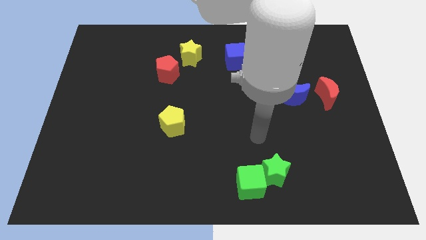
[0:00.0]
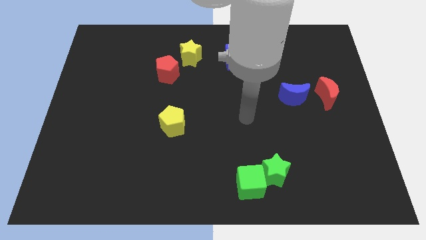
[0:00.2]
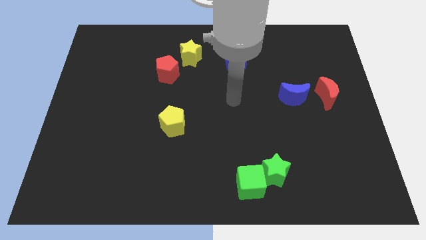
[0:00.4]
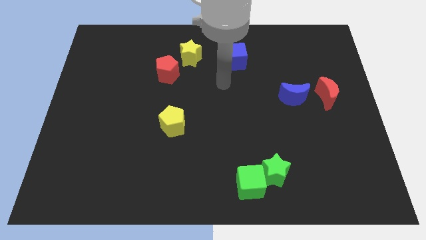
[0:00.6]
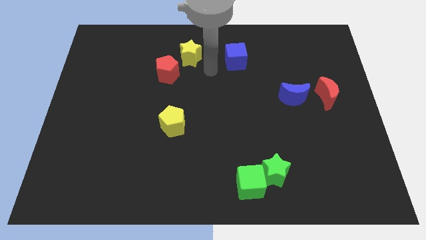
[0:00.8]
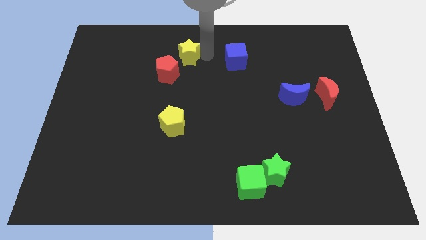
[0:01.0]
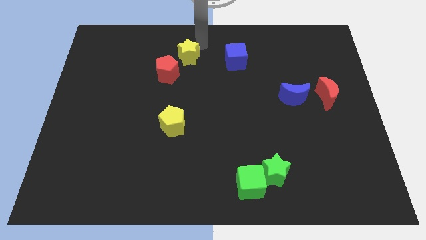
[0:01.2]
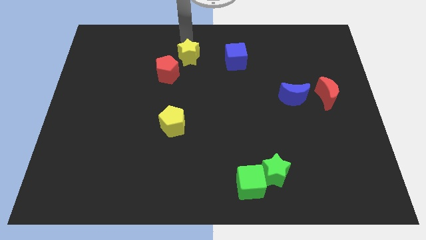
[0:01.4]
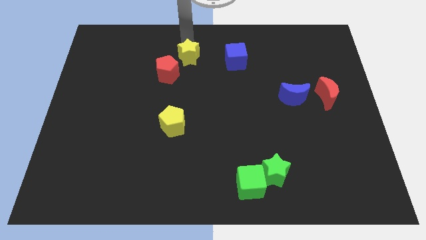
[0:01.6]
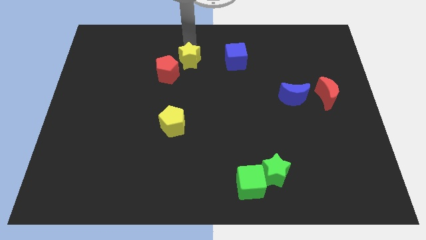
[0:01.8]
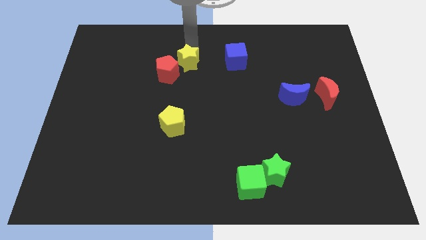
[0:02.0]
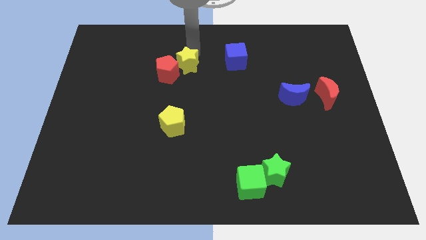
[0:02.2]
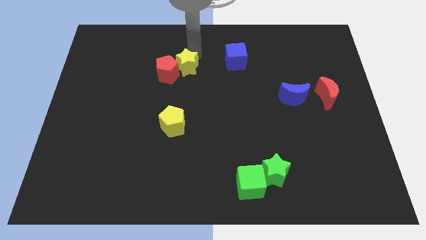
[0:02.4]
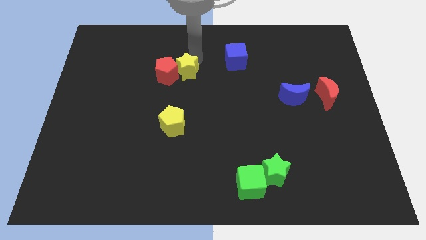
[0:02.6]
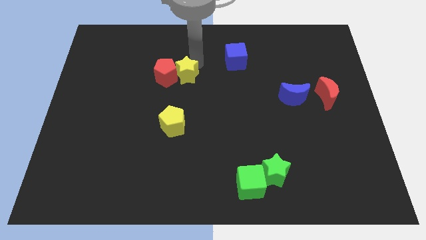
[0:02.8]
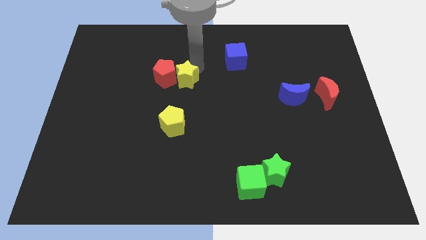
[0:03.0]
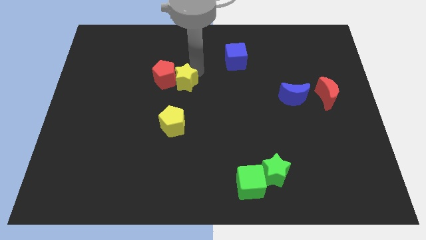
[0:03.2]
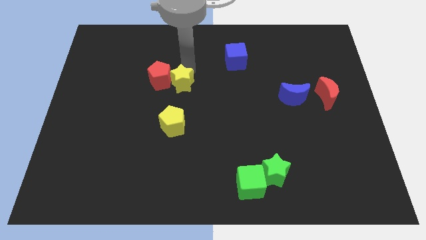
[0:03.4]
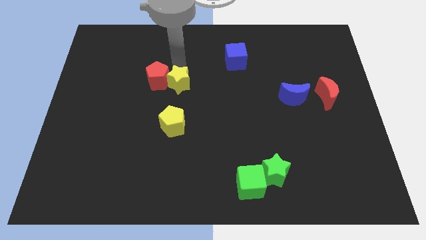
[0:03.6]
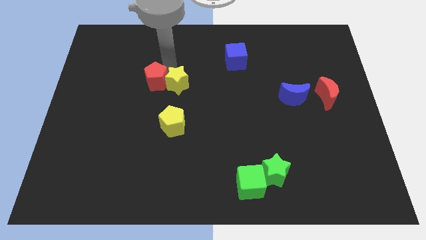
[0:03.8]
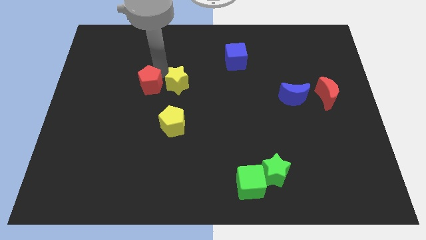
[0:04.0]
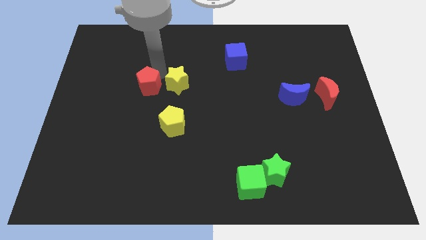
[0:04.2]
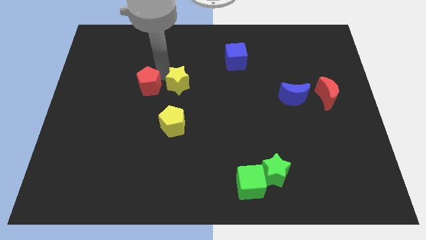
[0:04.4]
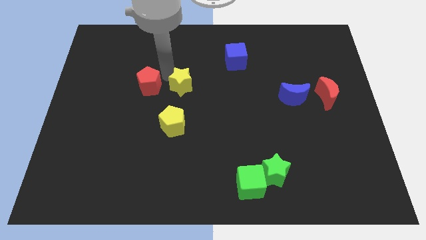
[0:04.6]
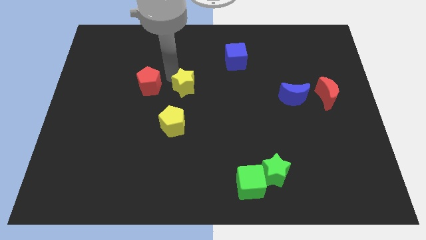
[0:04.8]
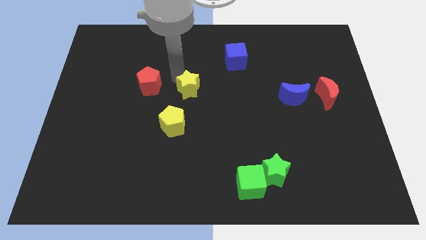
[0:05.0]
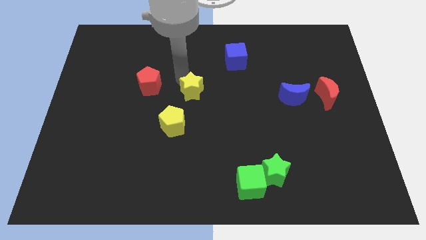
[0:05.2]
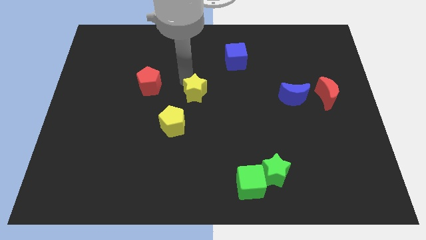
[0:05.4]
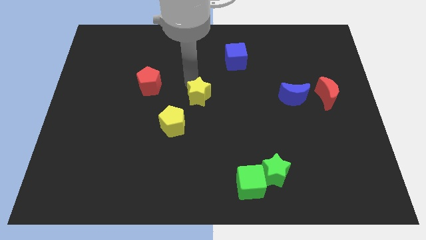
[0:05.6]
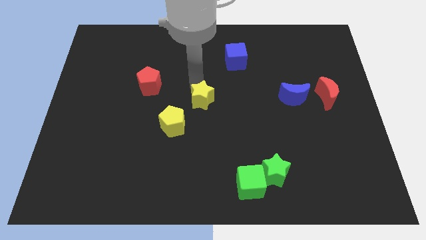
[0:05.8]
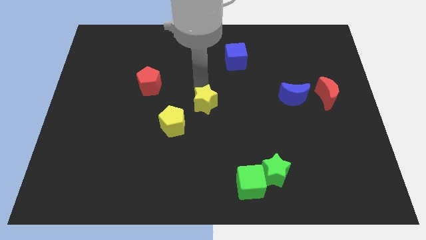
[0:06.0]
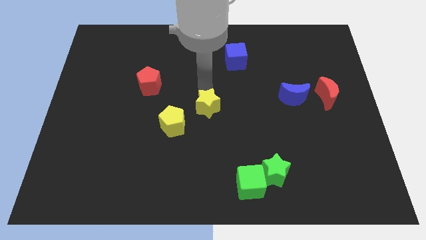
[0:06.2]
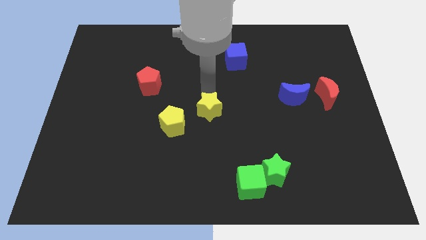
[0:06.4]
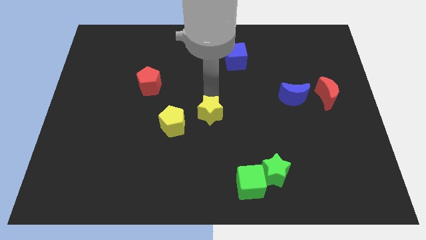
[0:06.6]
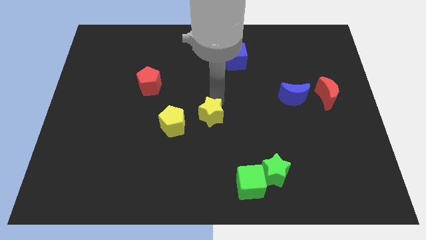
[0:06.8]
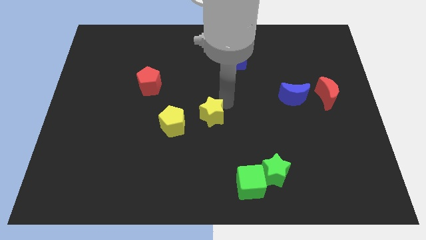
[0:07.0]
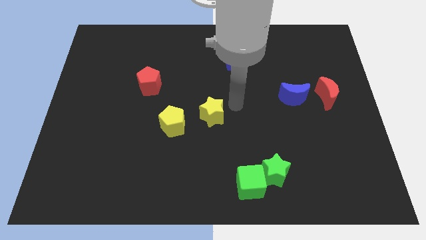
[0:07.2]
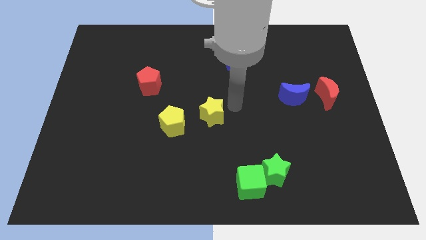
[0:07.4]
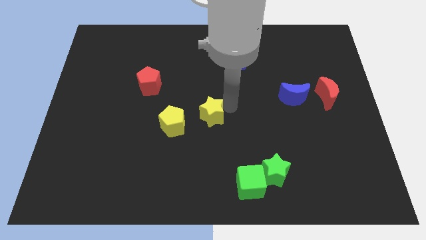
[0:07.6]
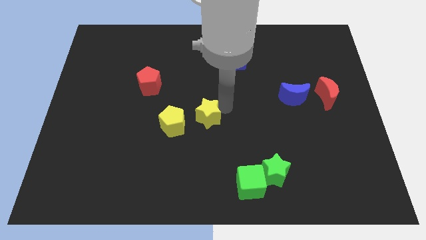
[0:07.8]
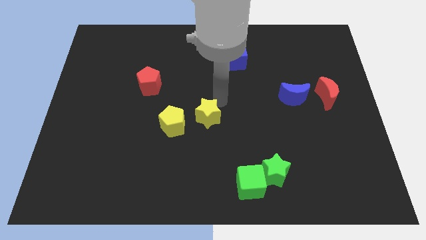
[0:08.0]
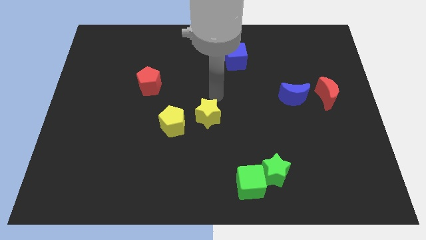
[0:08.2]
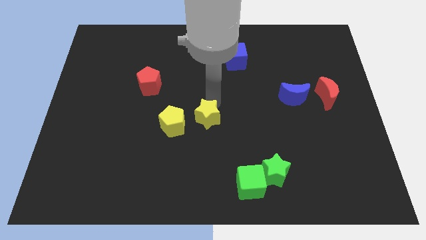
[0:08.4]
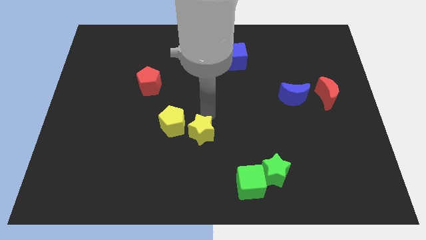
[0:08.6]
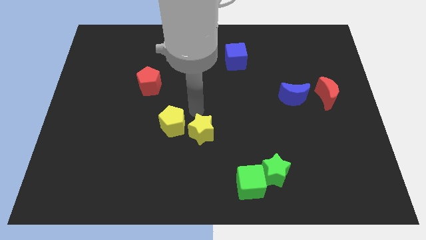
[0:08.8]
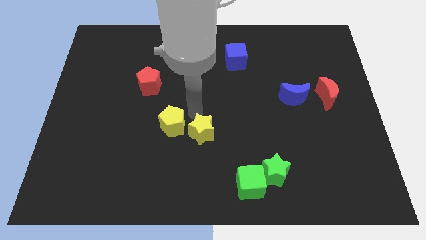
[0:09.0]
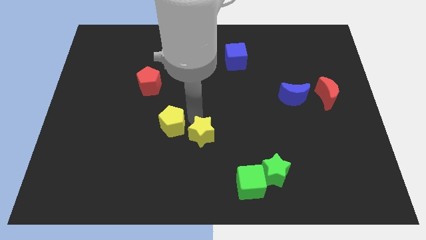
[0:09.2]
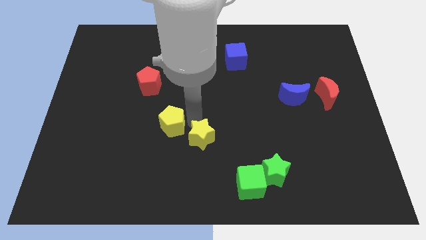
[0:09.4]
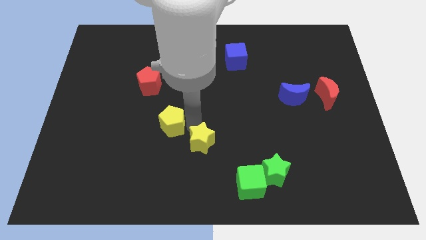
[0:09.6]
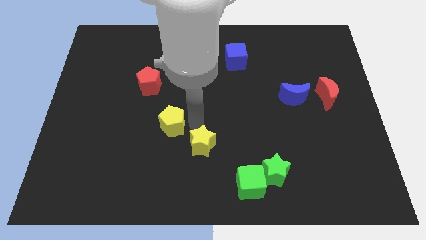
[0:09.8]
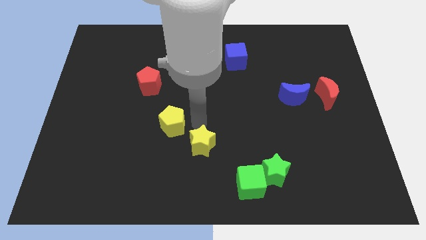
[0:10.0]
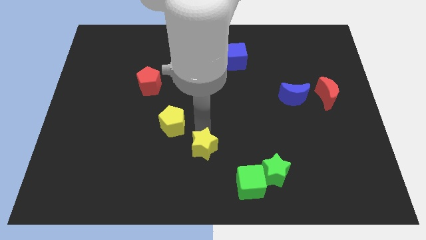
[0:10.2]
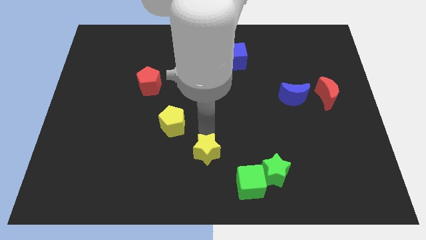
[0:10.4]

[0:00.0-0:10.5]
slide the yellow star to the bottom side

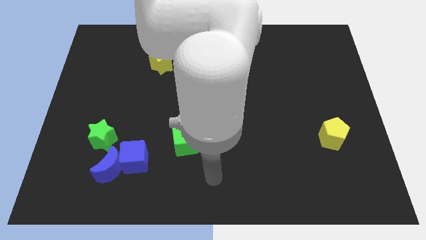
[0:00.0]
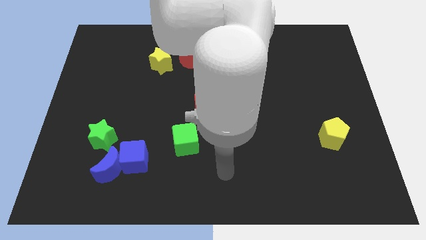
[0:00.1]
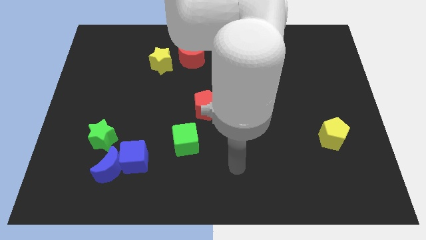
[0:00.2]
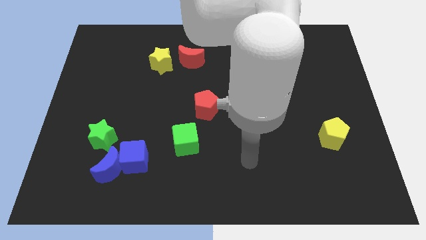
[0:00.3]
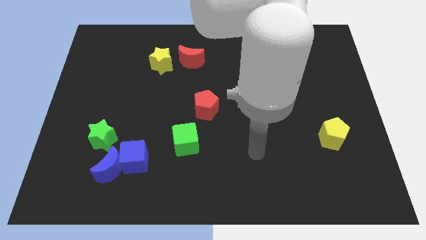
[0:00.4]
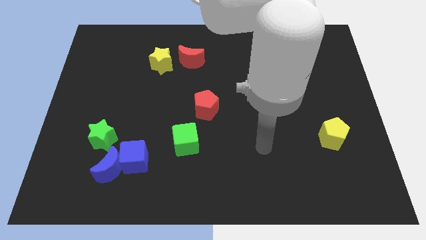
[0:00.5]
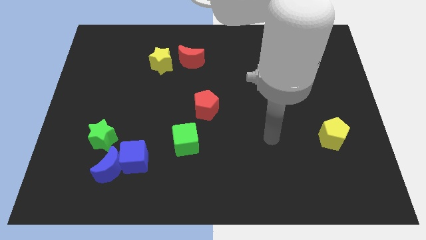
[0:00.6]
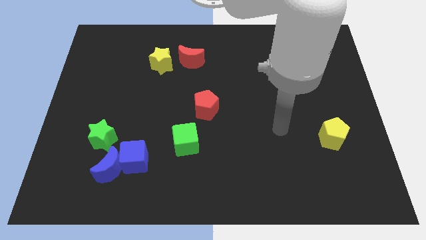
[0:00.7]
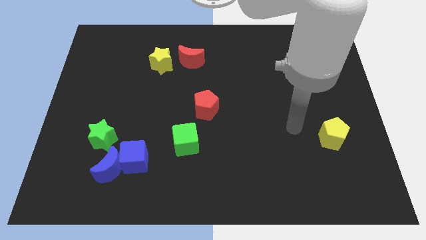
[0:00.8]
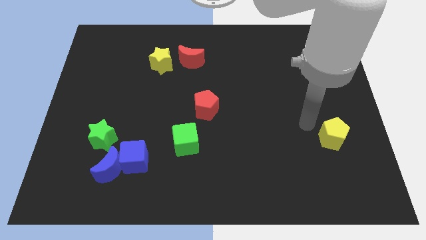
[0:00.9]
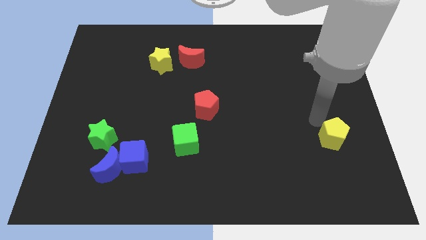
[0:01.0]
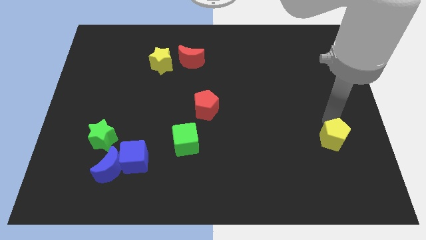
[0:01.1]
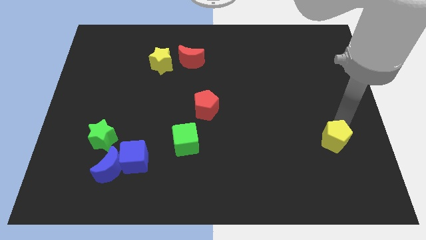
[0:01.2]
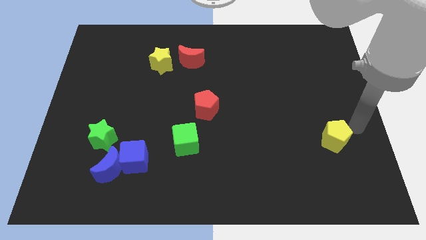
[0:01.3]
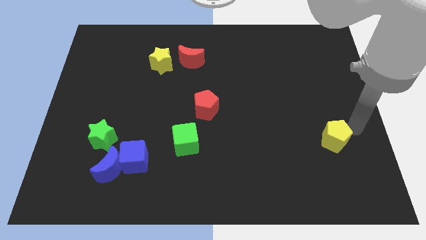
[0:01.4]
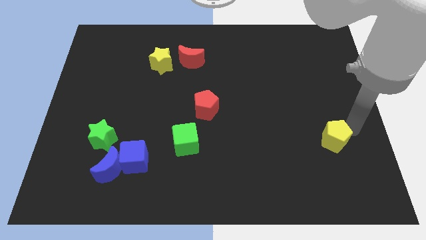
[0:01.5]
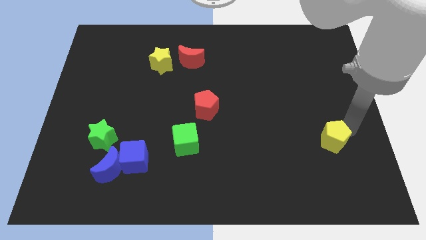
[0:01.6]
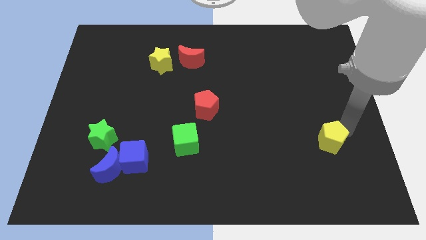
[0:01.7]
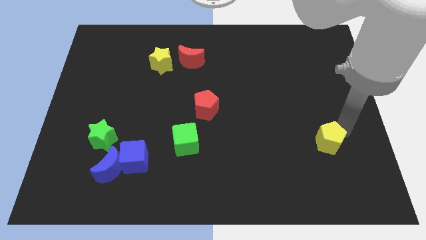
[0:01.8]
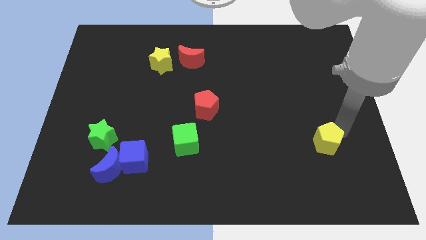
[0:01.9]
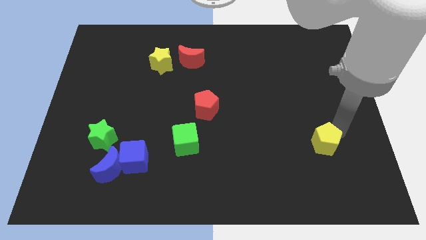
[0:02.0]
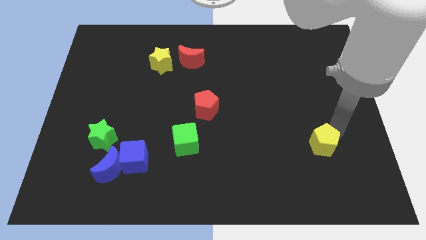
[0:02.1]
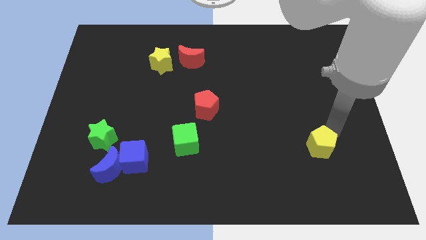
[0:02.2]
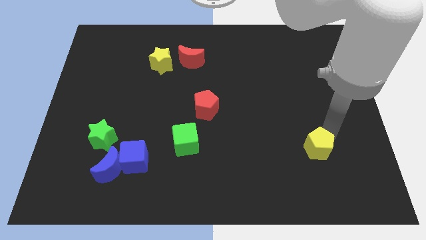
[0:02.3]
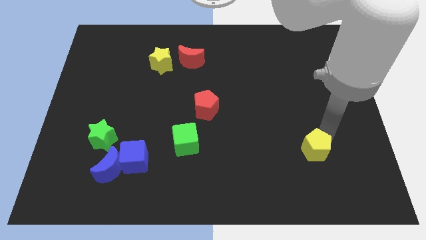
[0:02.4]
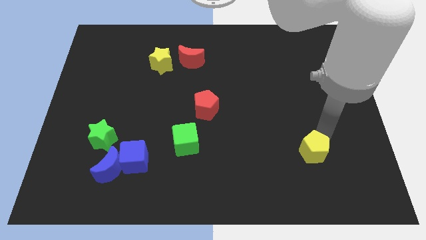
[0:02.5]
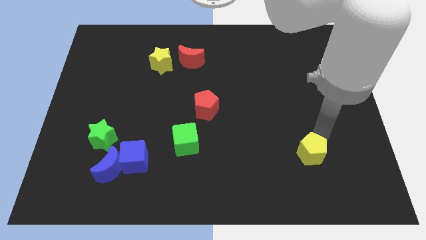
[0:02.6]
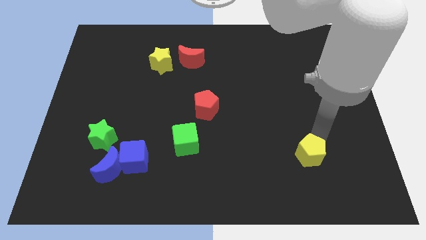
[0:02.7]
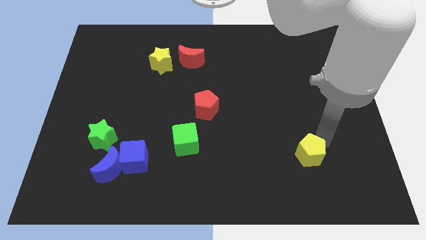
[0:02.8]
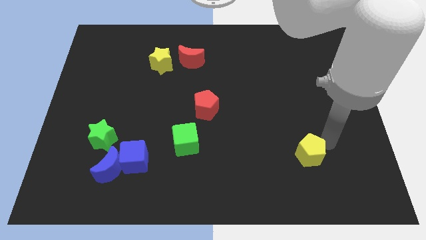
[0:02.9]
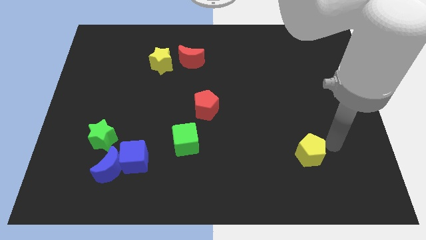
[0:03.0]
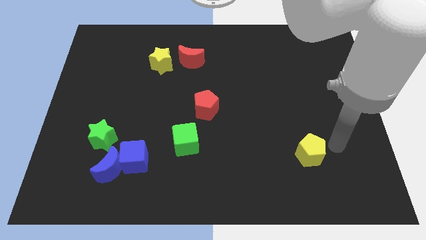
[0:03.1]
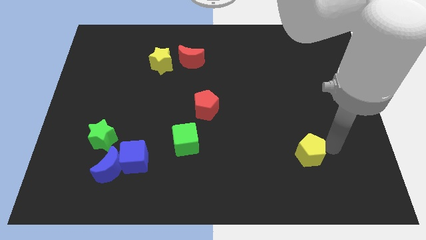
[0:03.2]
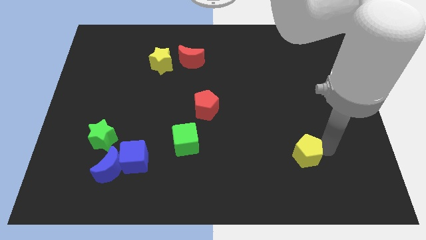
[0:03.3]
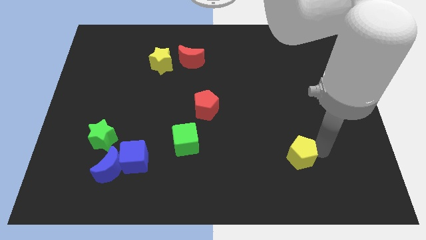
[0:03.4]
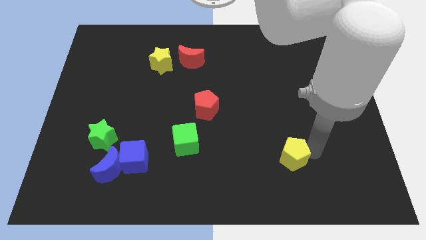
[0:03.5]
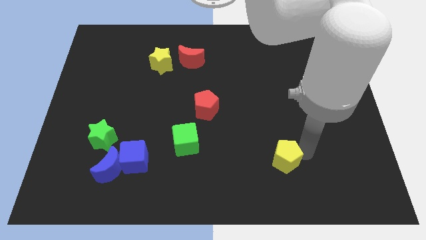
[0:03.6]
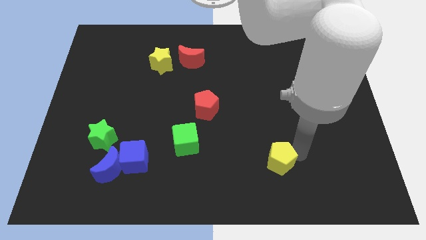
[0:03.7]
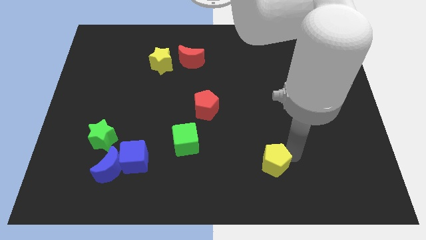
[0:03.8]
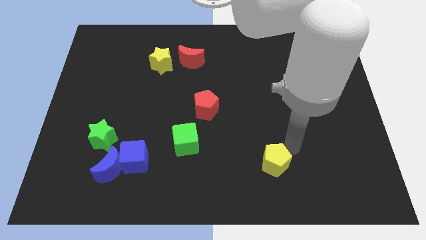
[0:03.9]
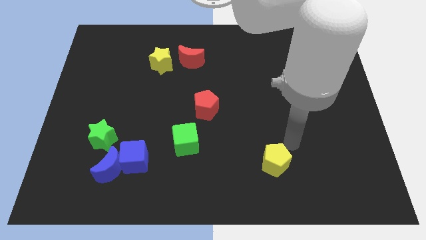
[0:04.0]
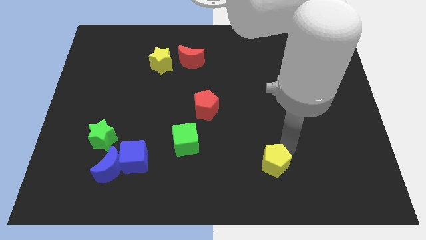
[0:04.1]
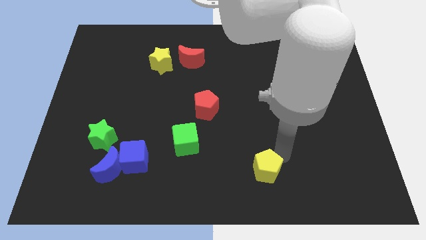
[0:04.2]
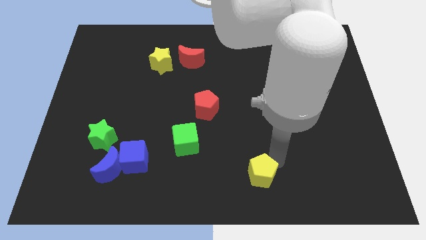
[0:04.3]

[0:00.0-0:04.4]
slide the yellow pentagon to the bottom side
